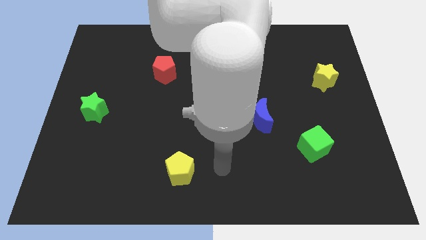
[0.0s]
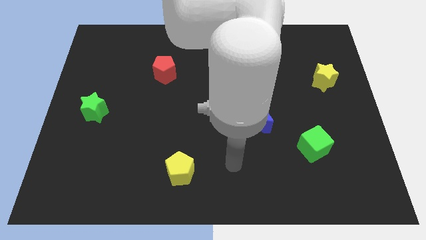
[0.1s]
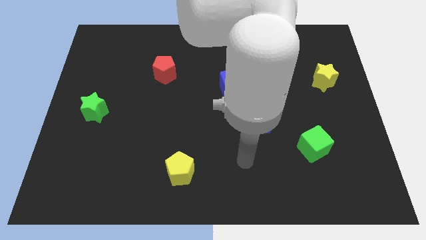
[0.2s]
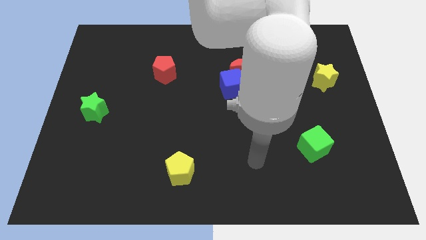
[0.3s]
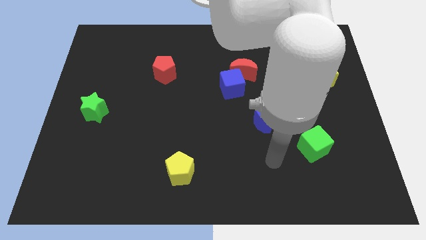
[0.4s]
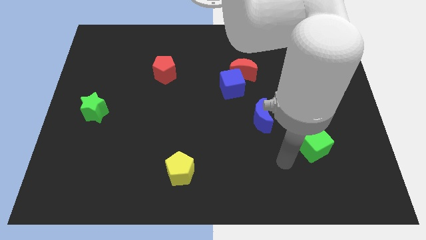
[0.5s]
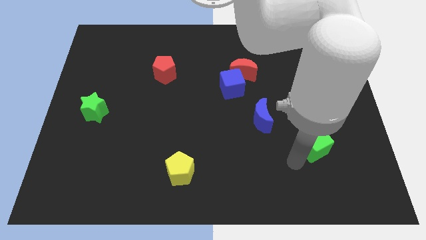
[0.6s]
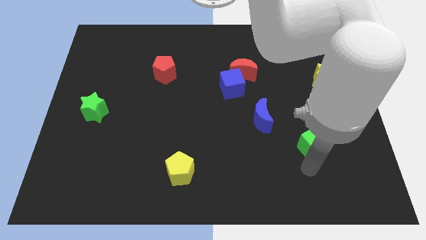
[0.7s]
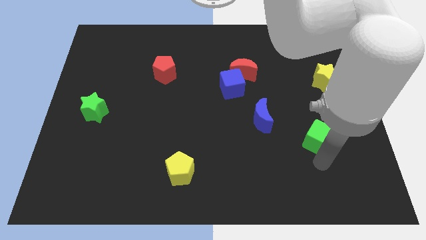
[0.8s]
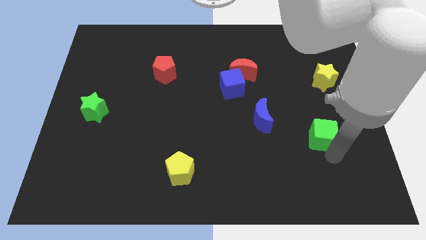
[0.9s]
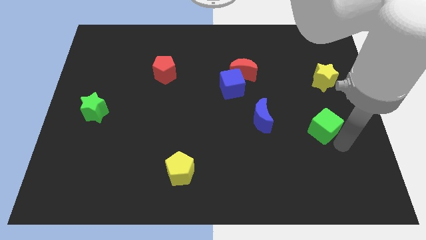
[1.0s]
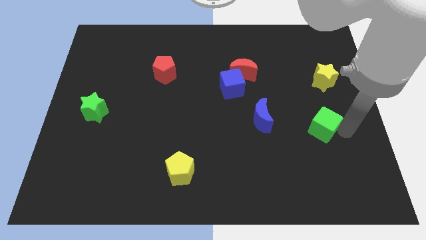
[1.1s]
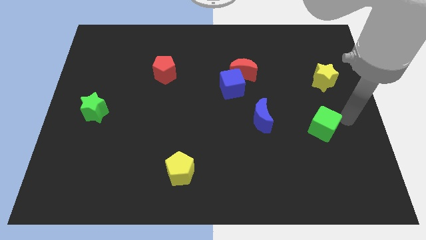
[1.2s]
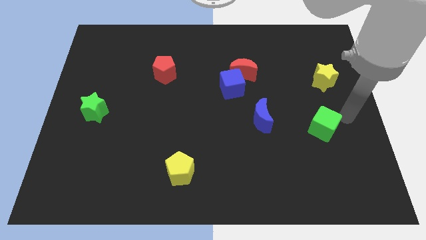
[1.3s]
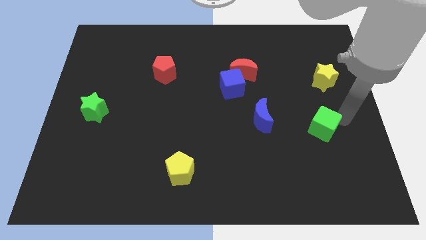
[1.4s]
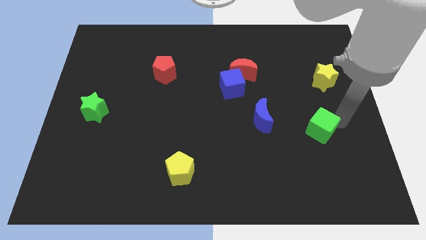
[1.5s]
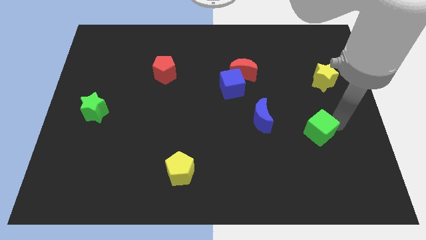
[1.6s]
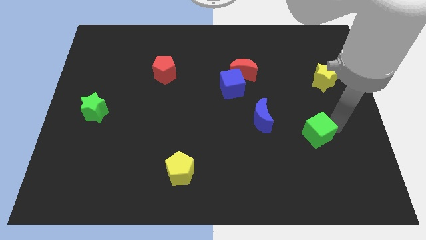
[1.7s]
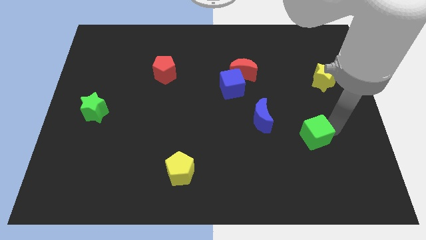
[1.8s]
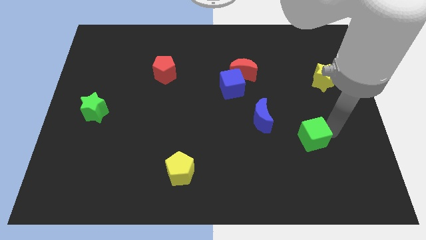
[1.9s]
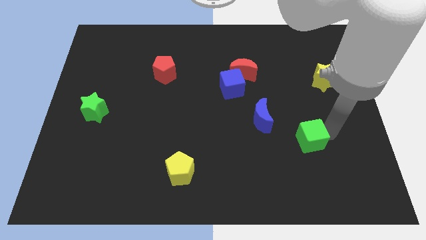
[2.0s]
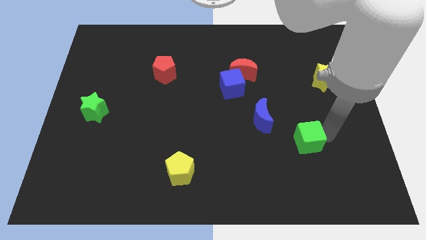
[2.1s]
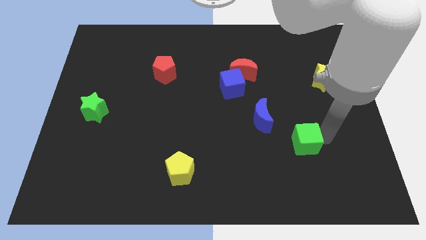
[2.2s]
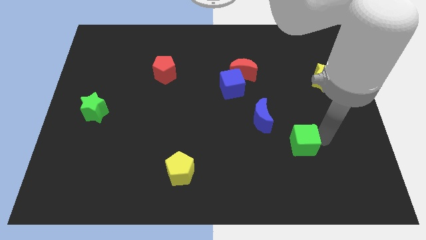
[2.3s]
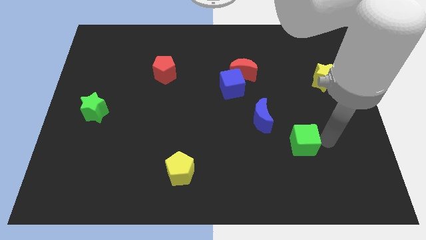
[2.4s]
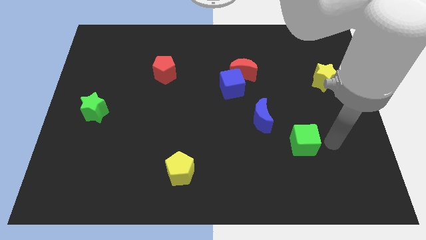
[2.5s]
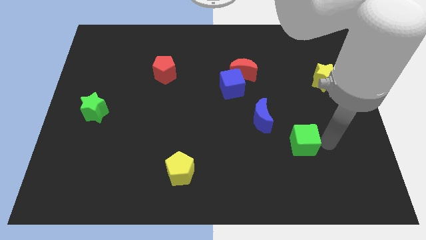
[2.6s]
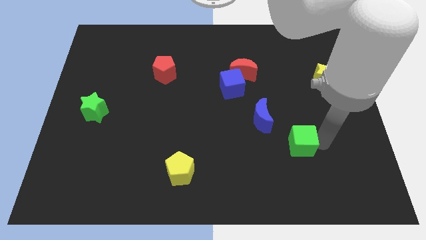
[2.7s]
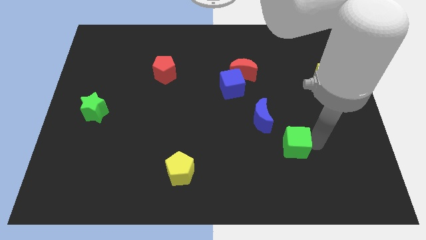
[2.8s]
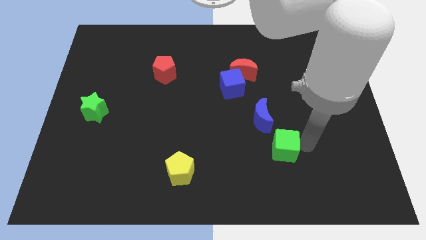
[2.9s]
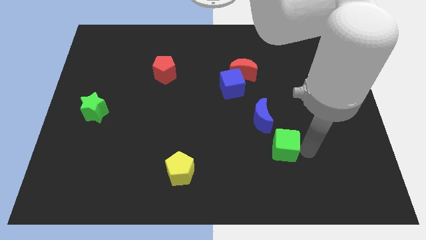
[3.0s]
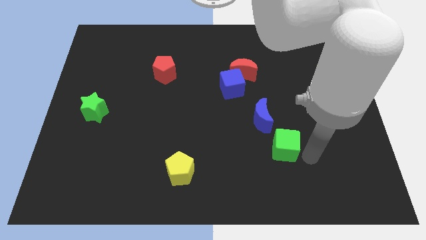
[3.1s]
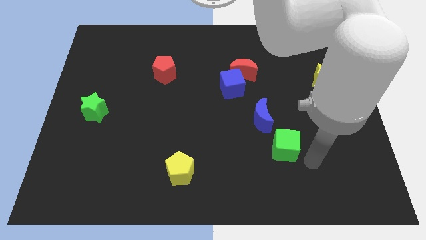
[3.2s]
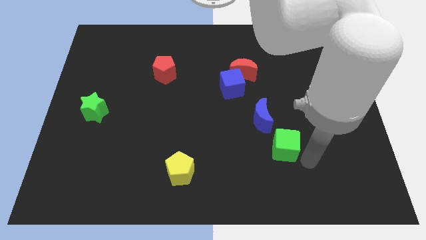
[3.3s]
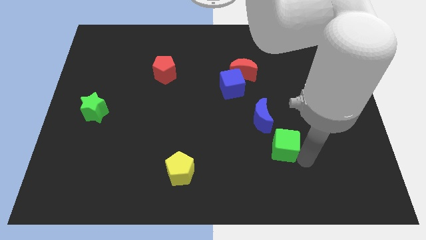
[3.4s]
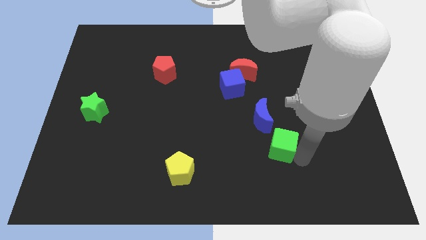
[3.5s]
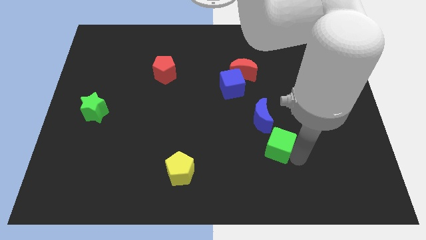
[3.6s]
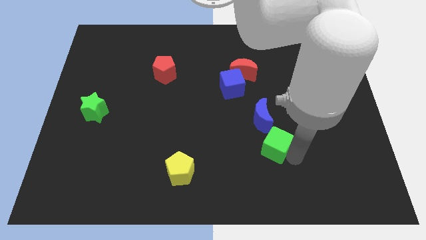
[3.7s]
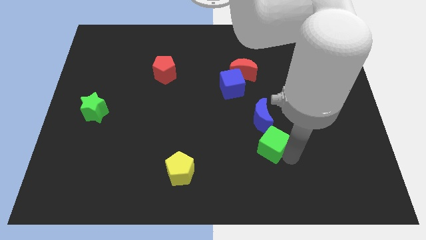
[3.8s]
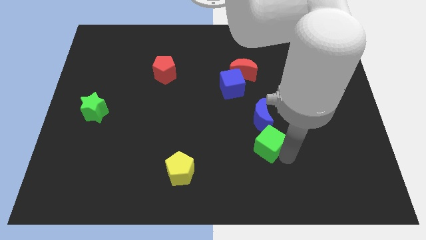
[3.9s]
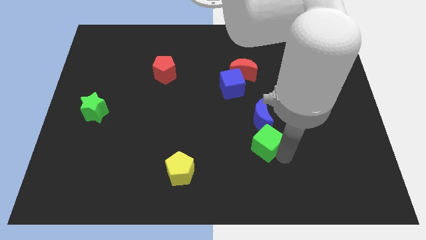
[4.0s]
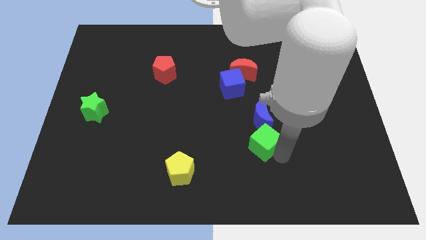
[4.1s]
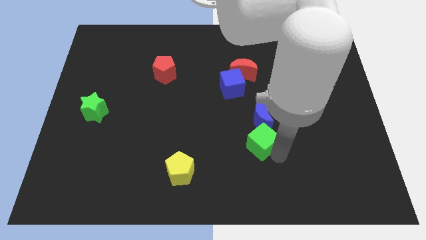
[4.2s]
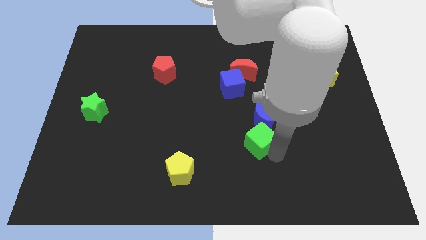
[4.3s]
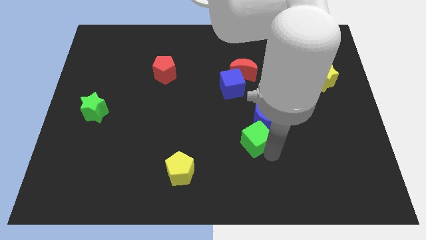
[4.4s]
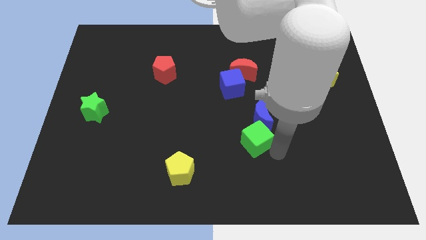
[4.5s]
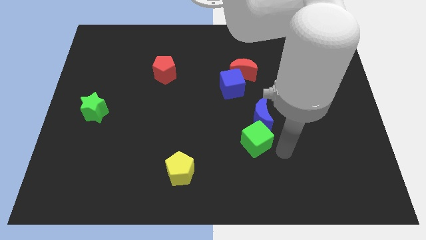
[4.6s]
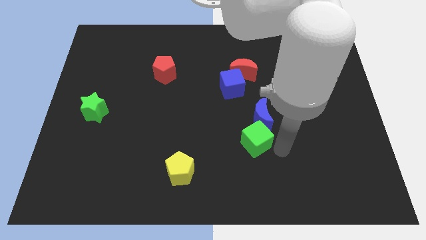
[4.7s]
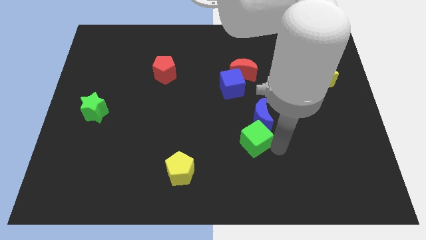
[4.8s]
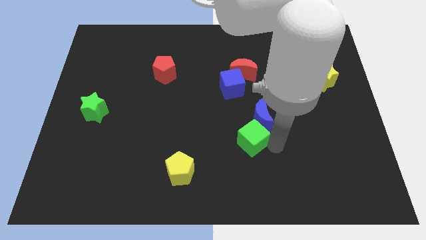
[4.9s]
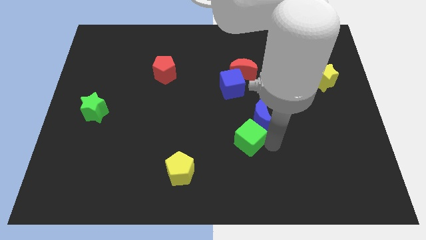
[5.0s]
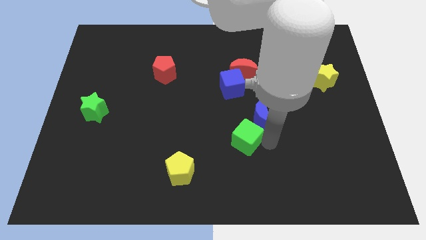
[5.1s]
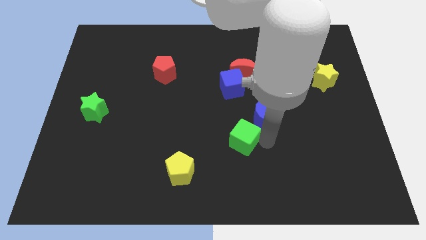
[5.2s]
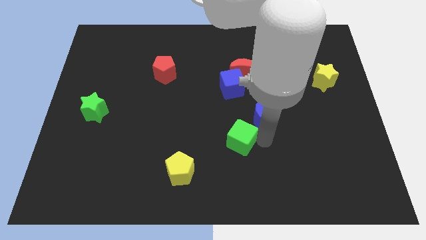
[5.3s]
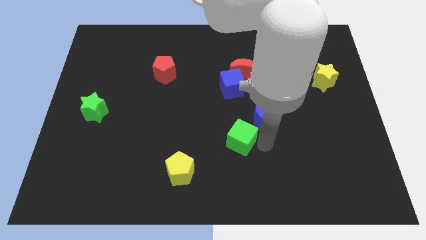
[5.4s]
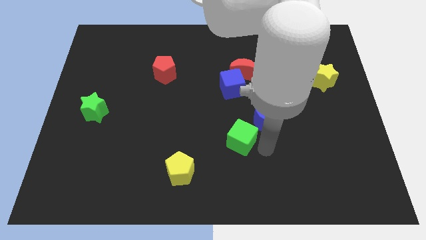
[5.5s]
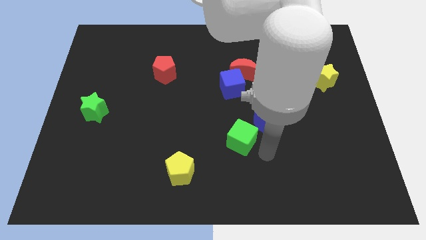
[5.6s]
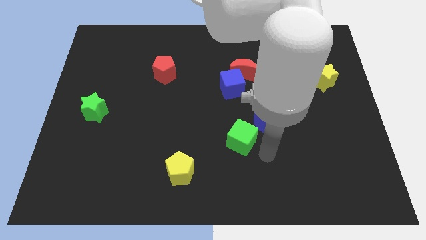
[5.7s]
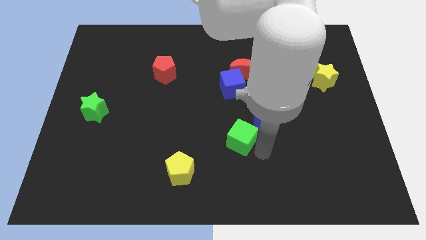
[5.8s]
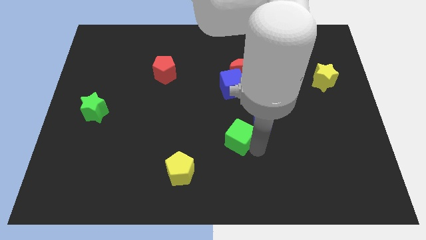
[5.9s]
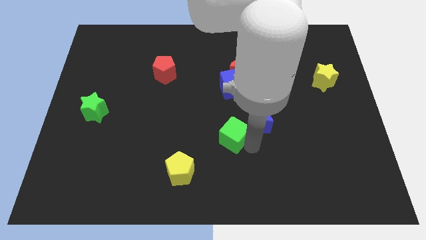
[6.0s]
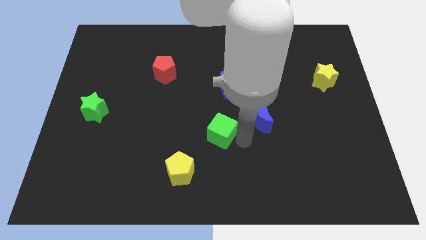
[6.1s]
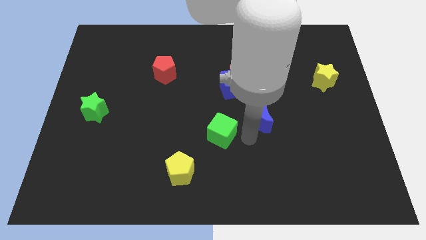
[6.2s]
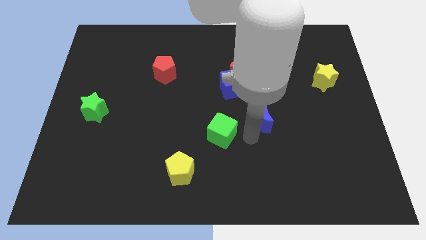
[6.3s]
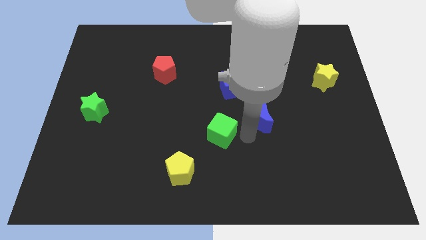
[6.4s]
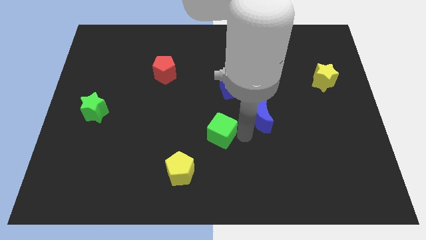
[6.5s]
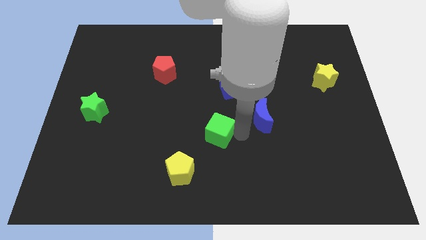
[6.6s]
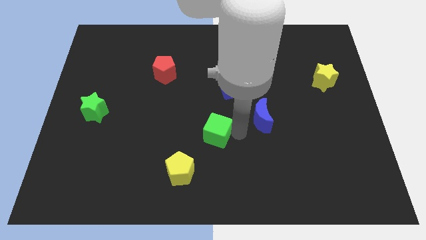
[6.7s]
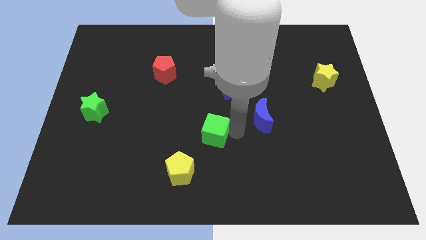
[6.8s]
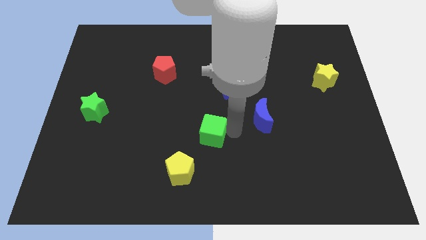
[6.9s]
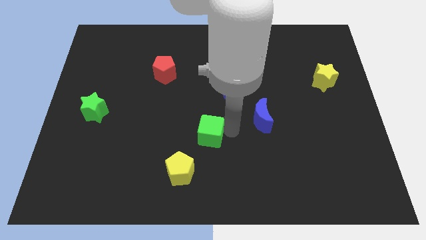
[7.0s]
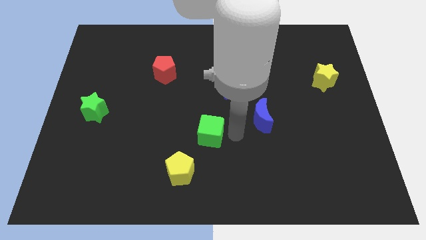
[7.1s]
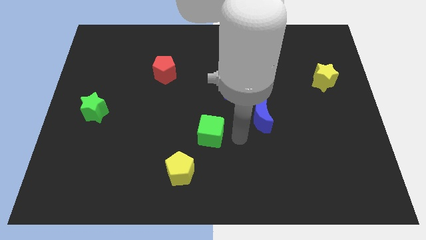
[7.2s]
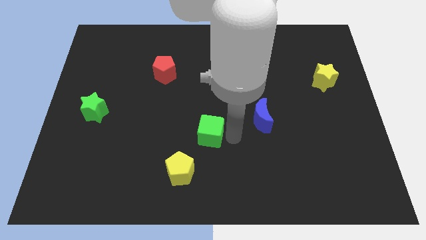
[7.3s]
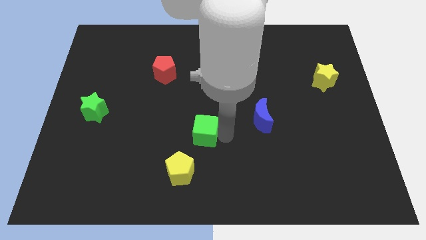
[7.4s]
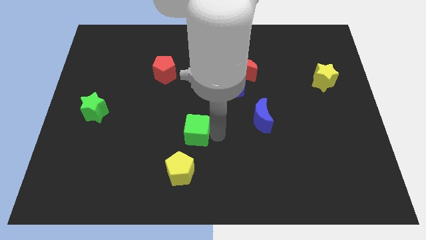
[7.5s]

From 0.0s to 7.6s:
push the green cube to the top of the yellow pentagon
